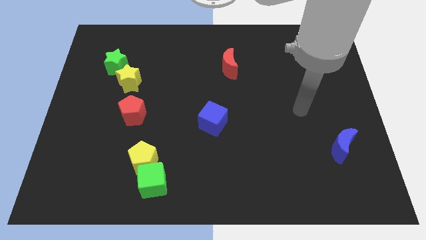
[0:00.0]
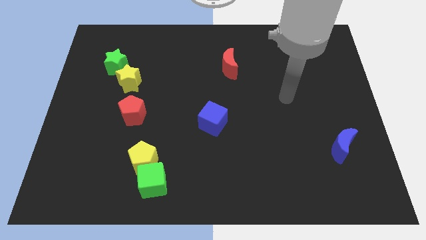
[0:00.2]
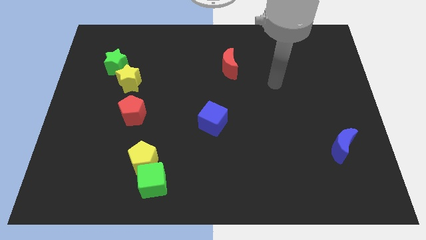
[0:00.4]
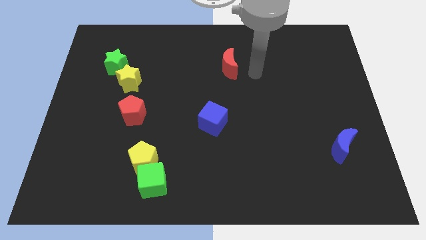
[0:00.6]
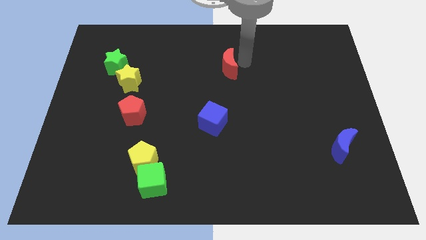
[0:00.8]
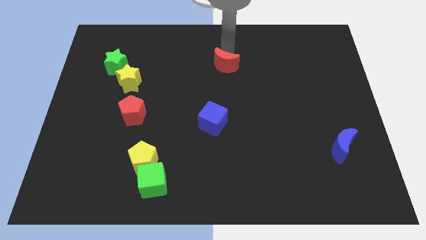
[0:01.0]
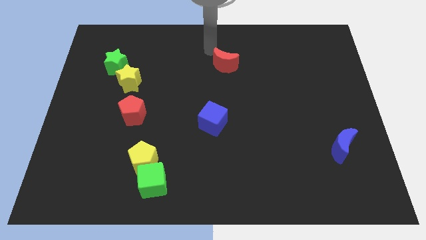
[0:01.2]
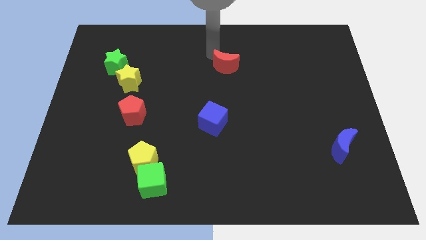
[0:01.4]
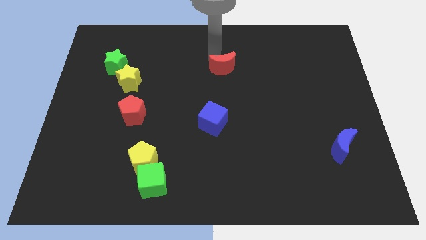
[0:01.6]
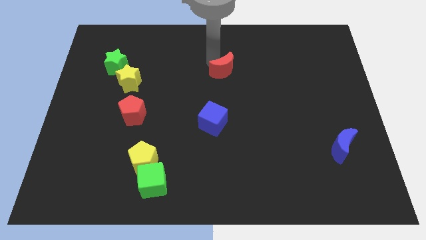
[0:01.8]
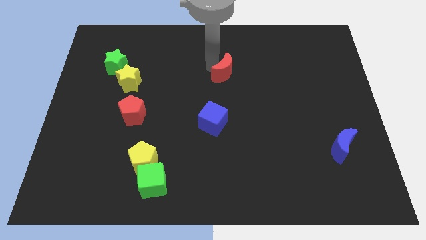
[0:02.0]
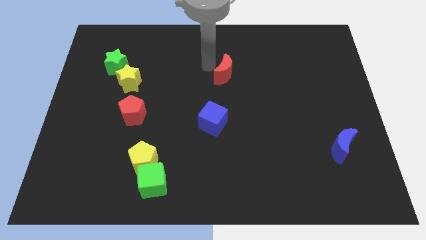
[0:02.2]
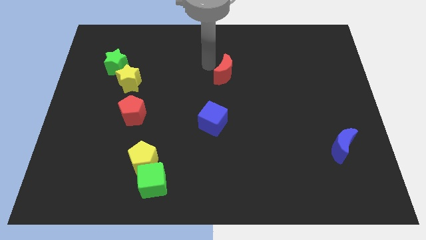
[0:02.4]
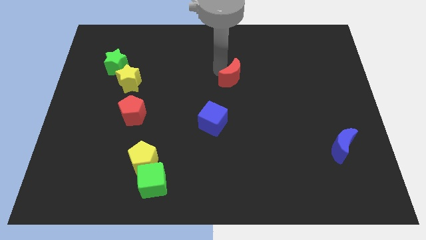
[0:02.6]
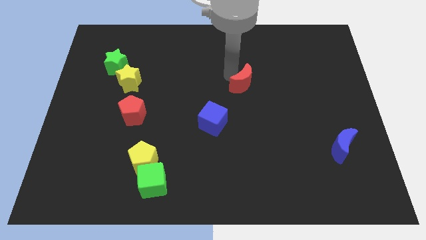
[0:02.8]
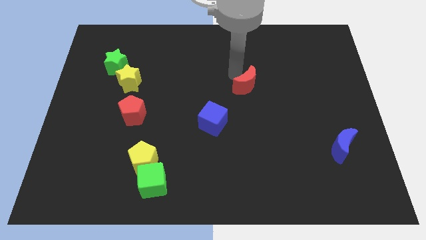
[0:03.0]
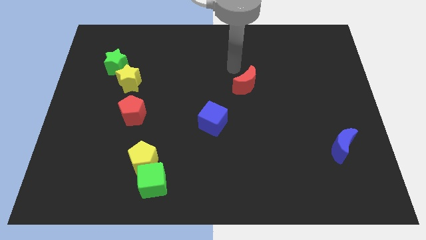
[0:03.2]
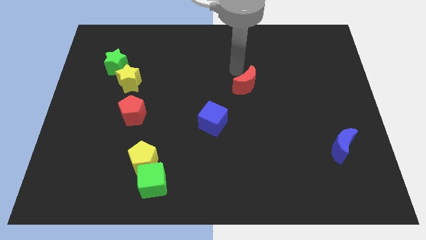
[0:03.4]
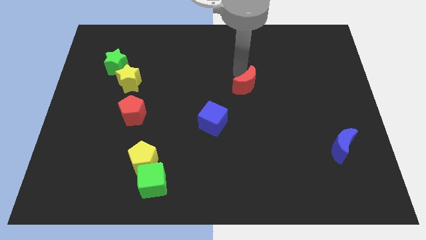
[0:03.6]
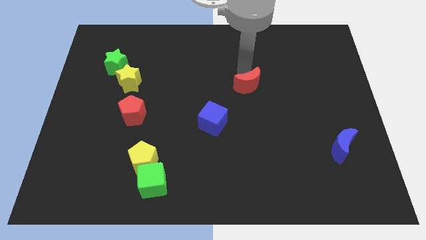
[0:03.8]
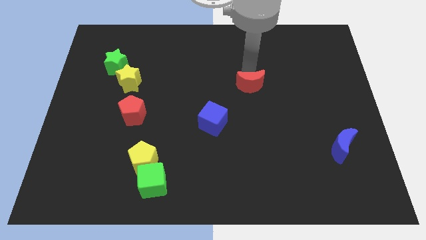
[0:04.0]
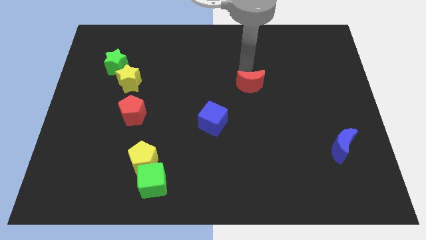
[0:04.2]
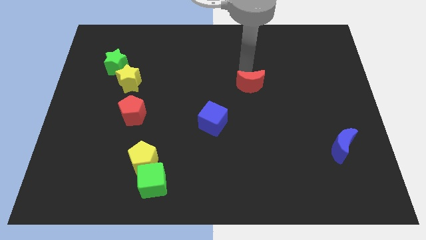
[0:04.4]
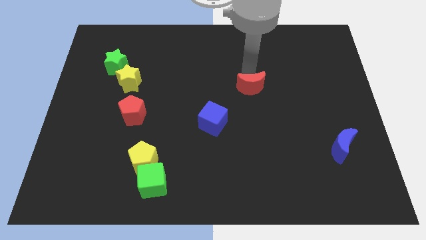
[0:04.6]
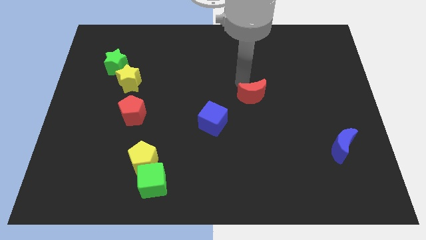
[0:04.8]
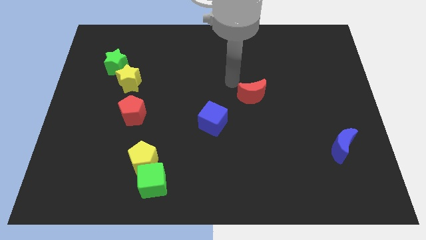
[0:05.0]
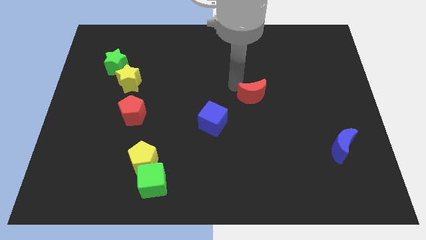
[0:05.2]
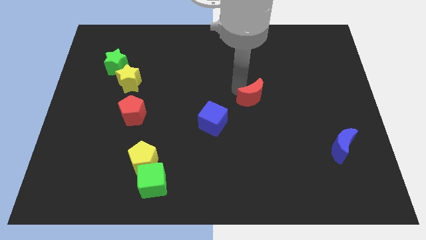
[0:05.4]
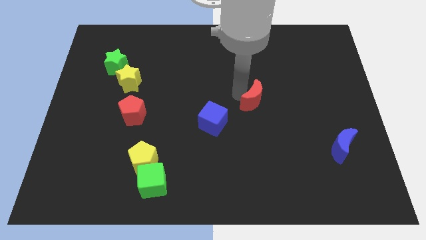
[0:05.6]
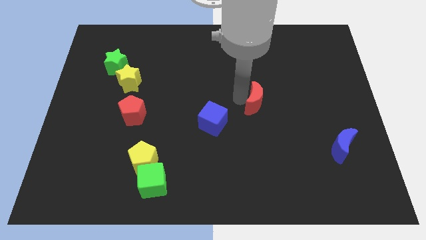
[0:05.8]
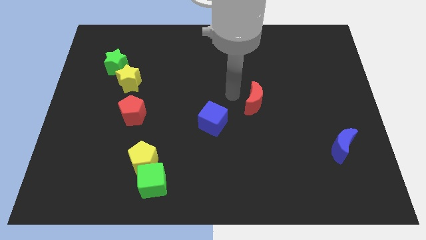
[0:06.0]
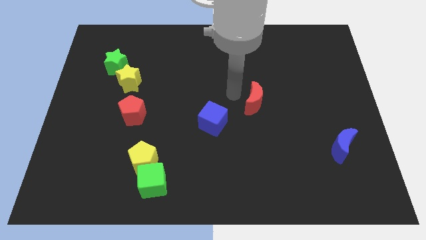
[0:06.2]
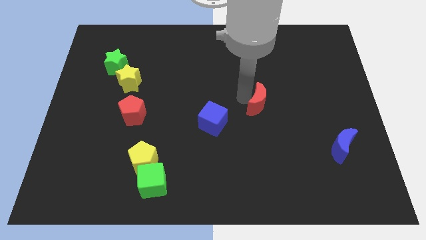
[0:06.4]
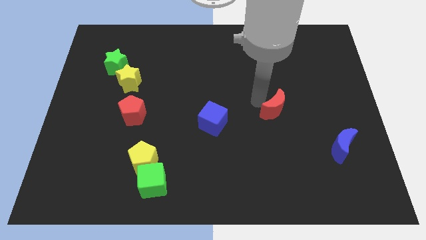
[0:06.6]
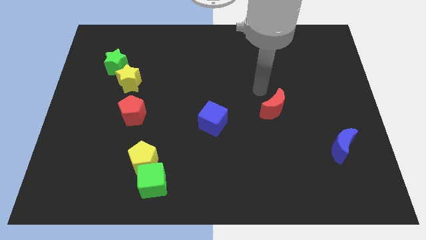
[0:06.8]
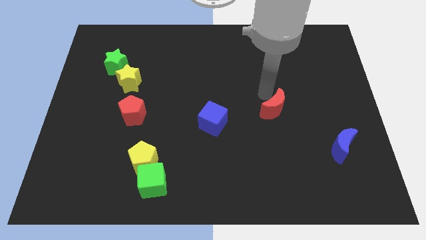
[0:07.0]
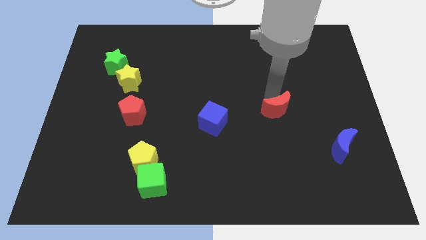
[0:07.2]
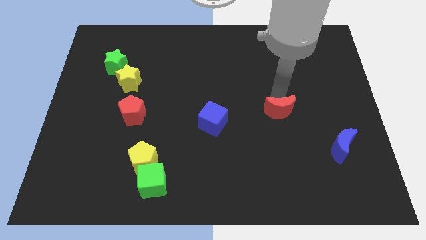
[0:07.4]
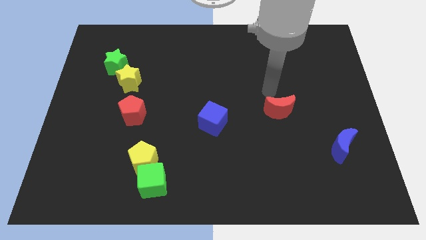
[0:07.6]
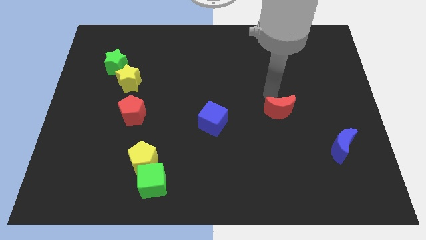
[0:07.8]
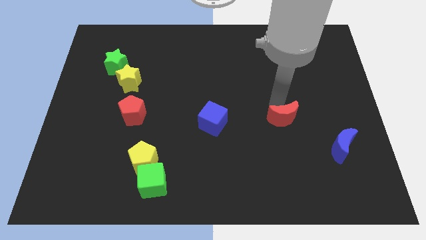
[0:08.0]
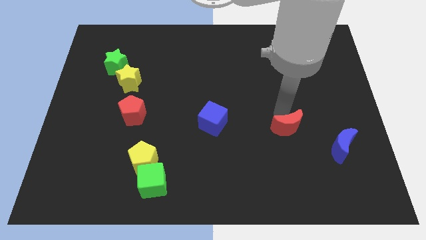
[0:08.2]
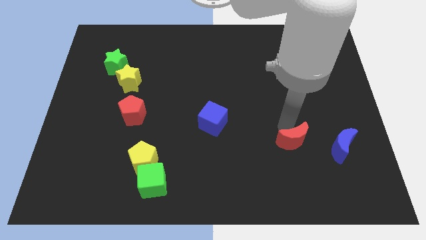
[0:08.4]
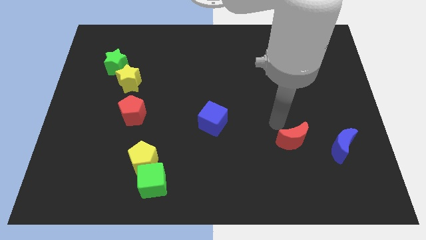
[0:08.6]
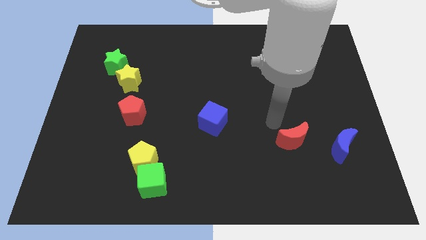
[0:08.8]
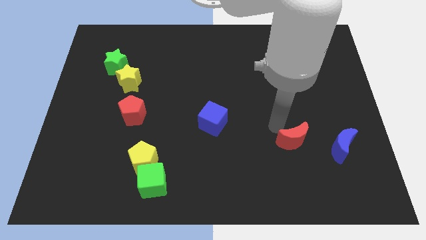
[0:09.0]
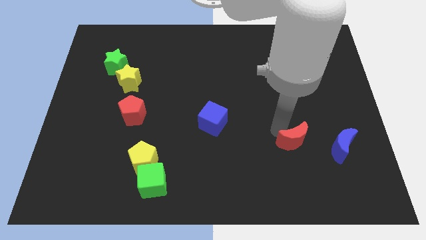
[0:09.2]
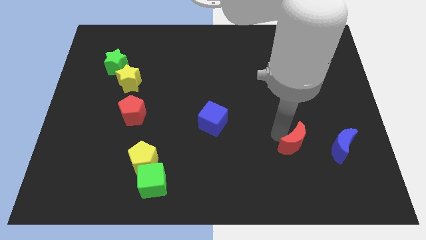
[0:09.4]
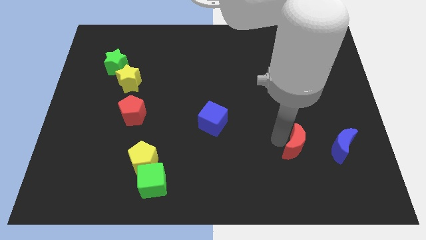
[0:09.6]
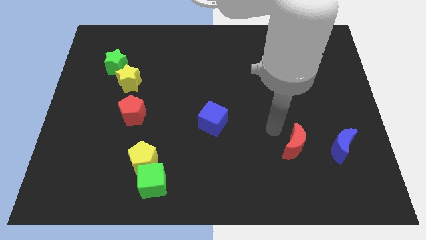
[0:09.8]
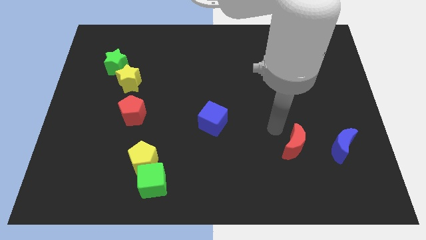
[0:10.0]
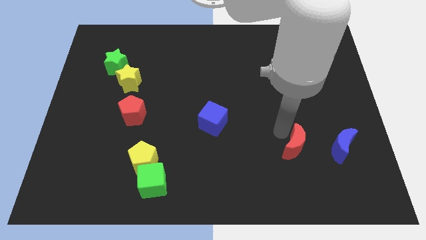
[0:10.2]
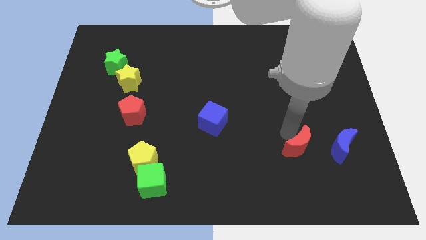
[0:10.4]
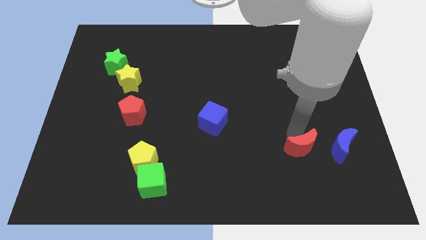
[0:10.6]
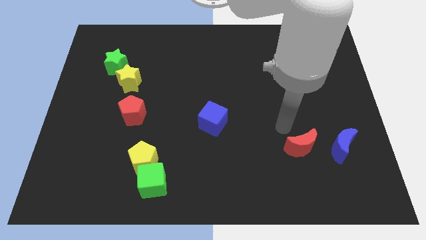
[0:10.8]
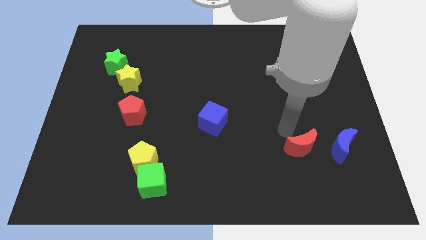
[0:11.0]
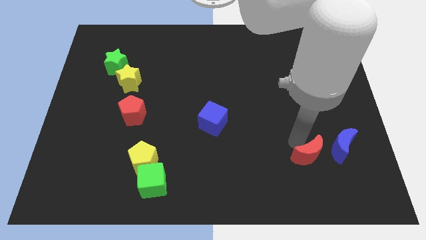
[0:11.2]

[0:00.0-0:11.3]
move the red moon diagonally down and to the left of the blue moon
